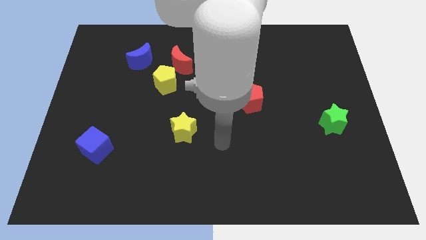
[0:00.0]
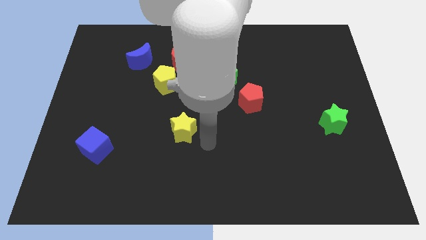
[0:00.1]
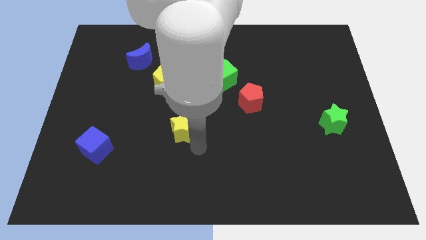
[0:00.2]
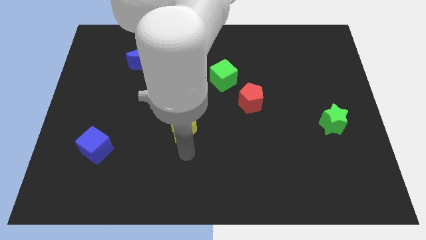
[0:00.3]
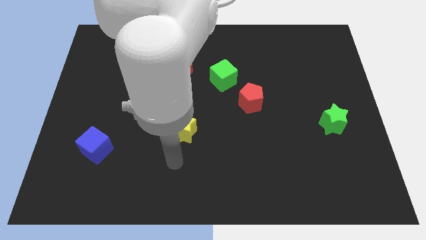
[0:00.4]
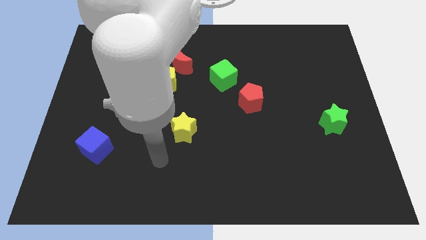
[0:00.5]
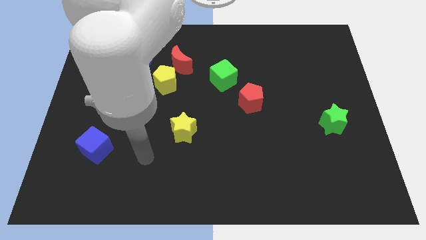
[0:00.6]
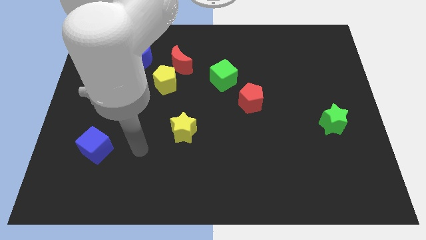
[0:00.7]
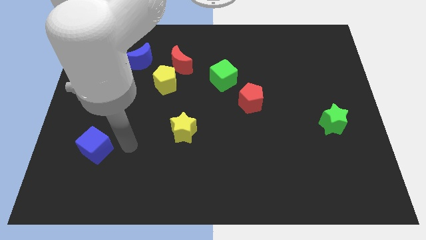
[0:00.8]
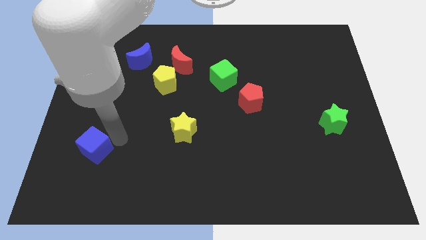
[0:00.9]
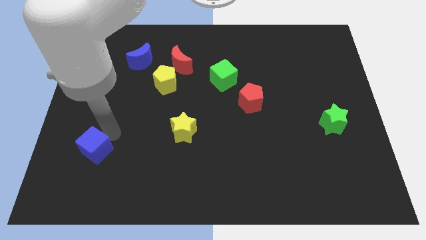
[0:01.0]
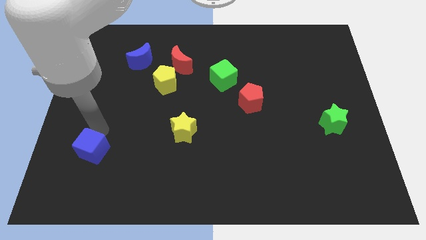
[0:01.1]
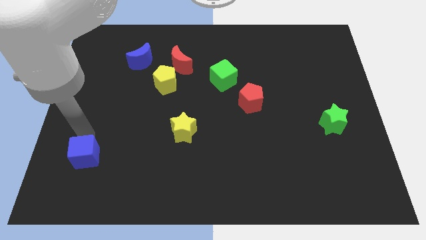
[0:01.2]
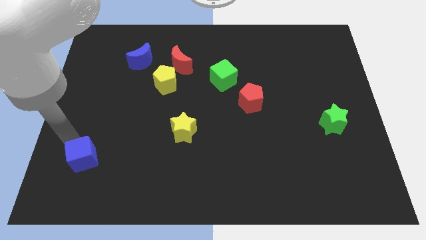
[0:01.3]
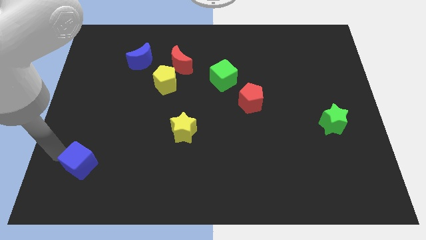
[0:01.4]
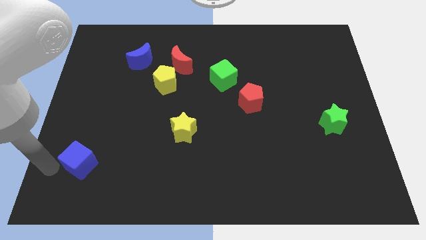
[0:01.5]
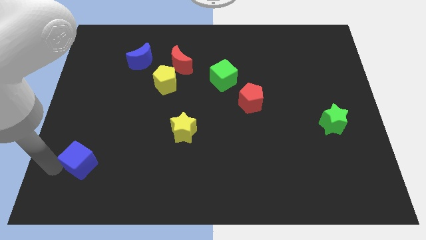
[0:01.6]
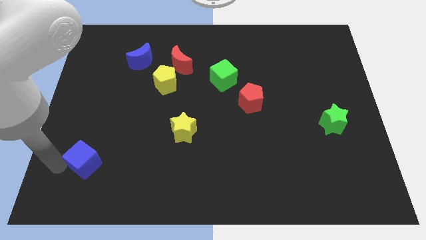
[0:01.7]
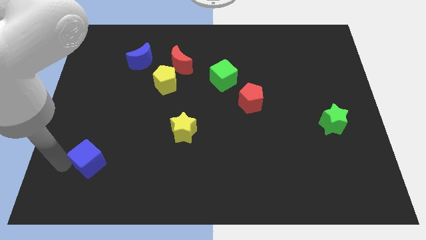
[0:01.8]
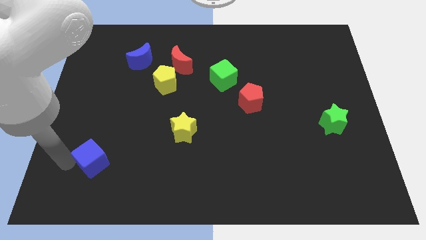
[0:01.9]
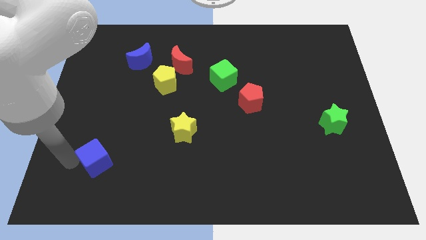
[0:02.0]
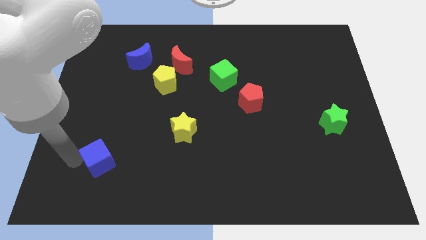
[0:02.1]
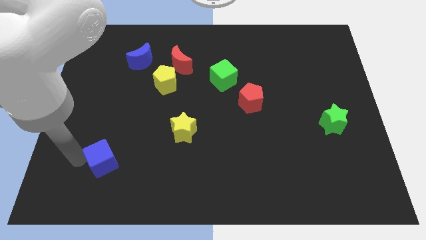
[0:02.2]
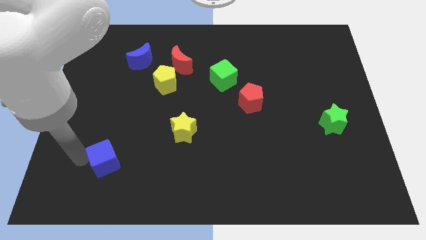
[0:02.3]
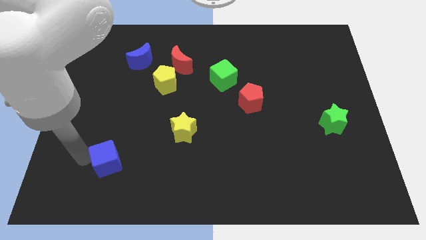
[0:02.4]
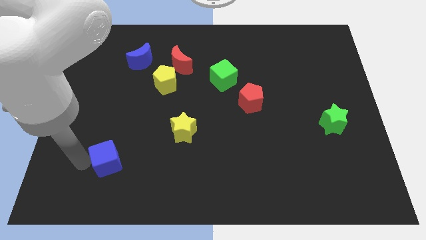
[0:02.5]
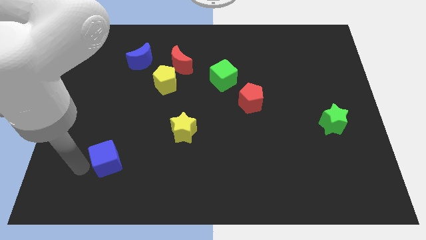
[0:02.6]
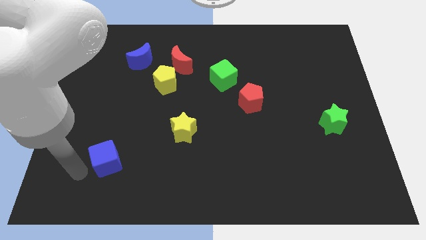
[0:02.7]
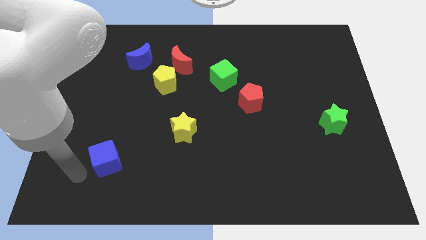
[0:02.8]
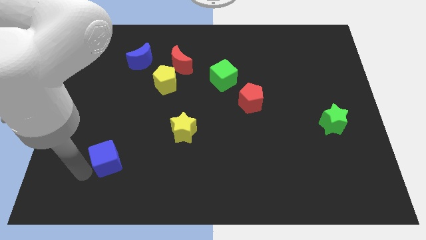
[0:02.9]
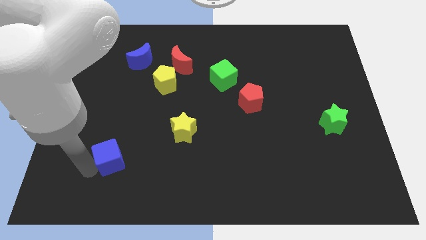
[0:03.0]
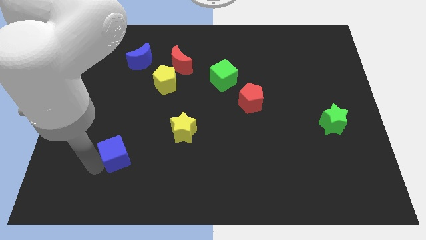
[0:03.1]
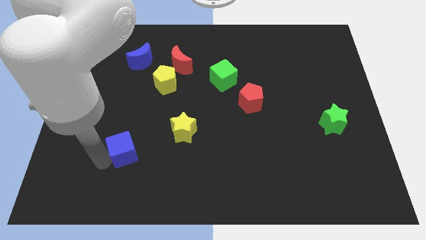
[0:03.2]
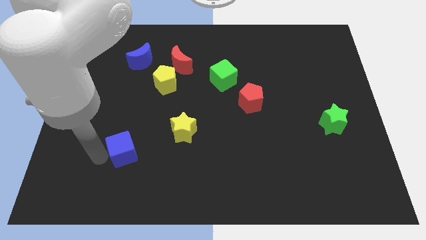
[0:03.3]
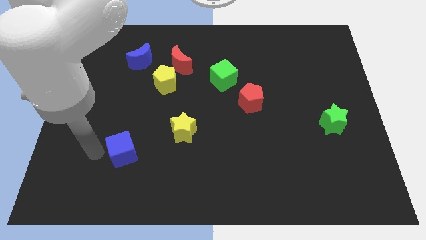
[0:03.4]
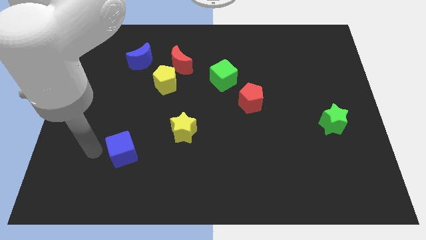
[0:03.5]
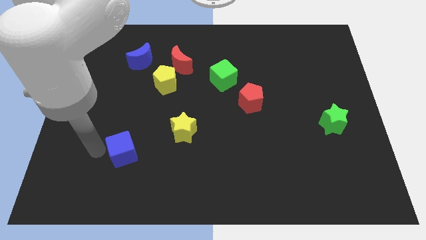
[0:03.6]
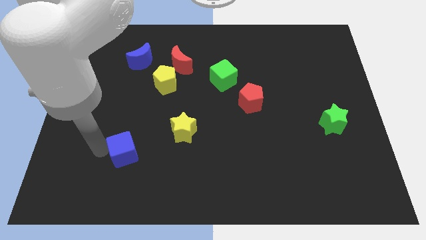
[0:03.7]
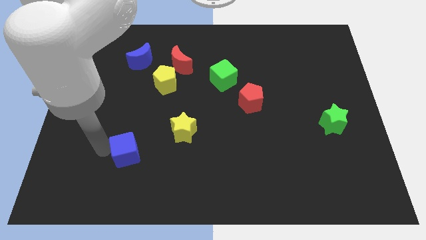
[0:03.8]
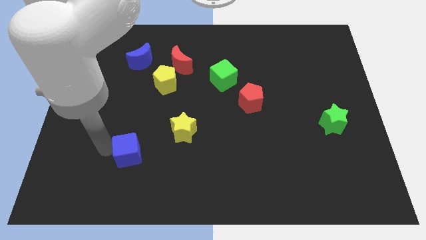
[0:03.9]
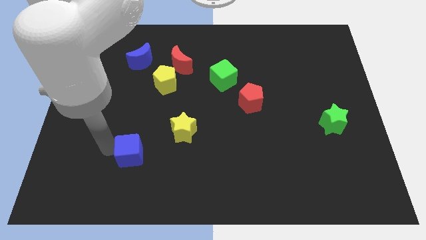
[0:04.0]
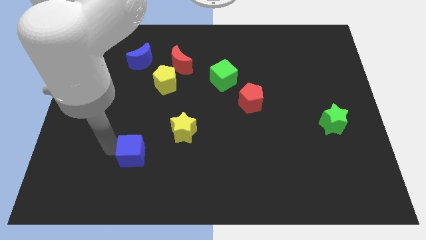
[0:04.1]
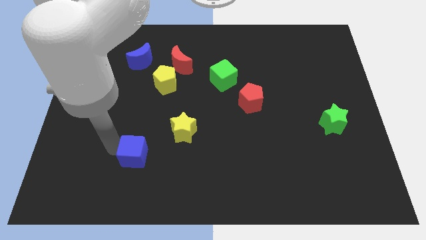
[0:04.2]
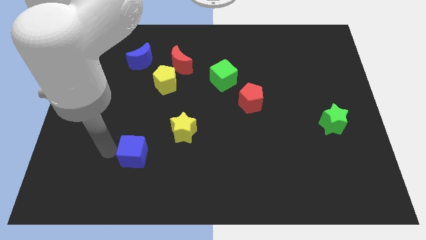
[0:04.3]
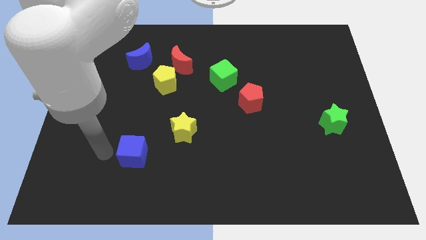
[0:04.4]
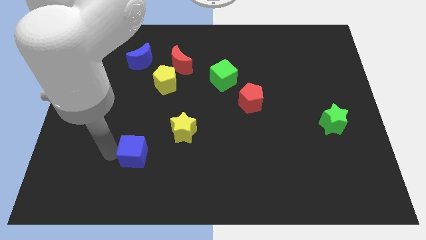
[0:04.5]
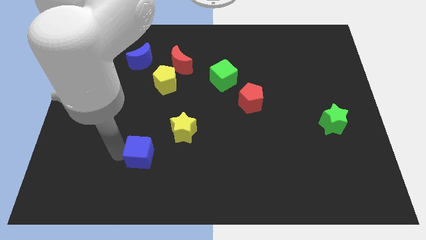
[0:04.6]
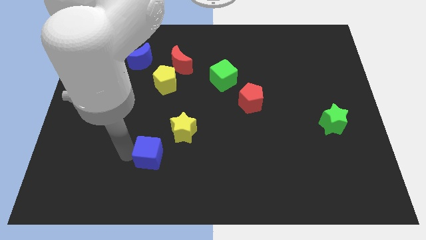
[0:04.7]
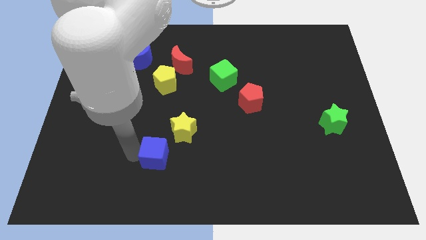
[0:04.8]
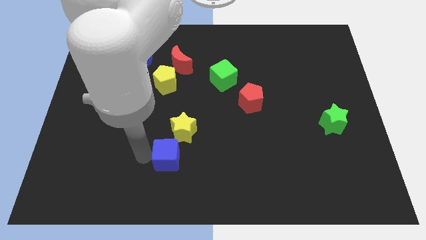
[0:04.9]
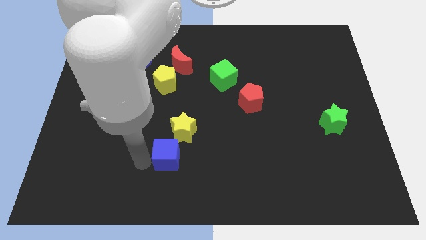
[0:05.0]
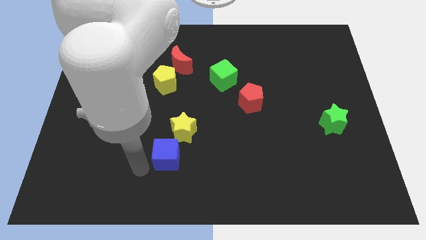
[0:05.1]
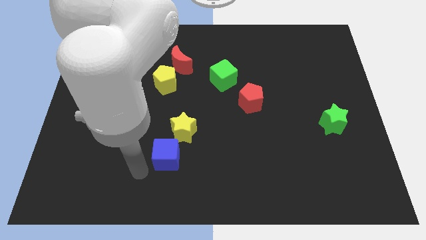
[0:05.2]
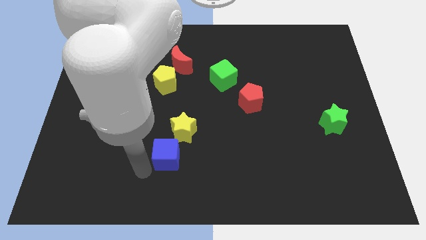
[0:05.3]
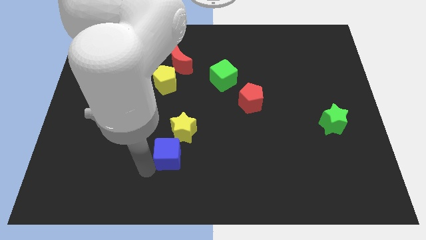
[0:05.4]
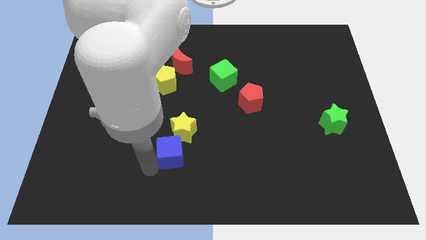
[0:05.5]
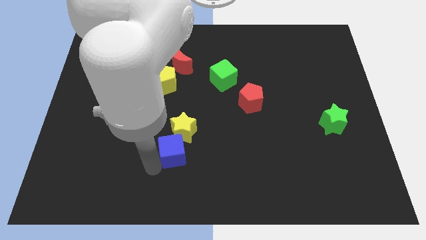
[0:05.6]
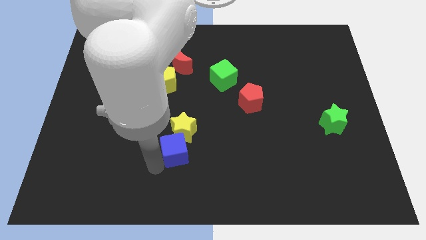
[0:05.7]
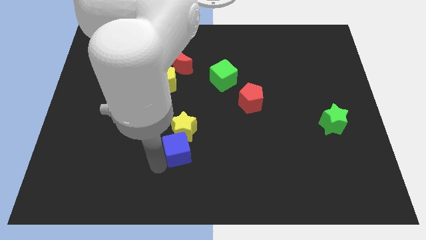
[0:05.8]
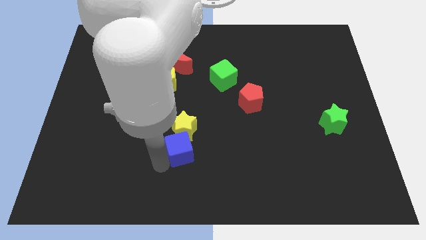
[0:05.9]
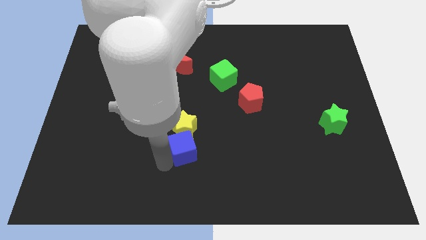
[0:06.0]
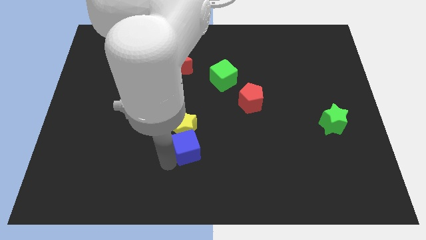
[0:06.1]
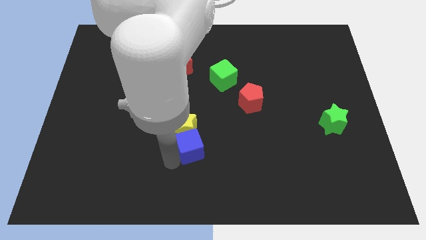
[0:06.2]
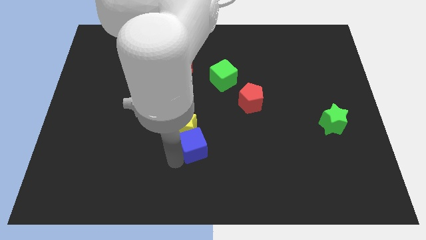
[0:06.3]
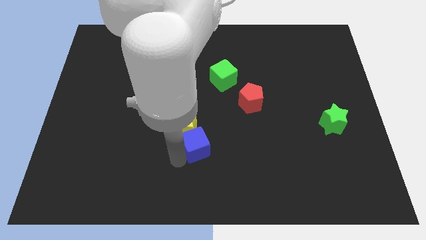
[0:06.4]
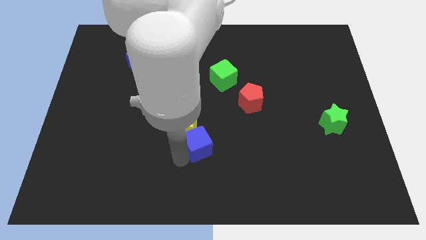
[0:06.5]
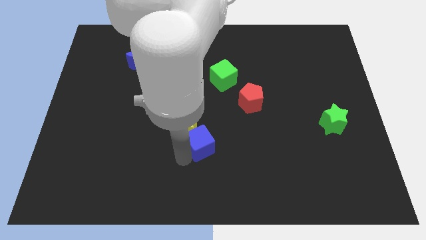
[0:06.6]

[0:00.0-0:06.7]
slide the blue cube to the right side of the yellow star

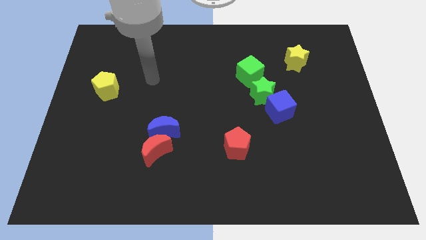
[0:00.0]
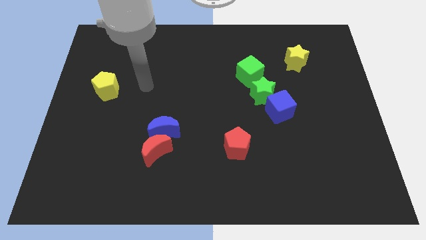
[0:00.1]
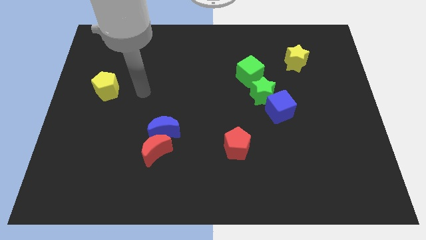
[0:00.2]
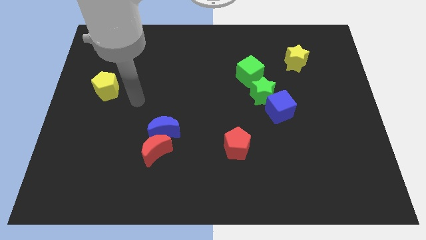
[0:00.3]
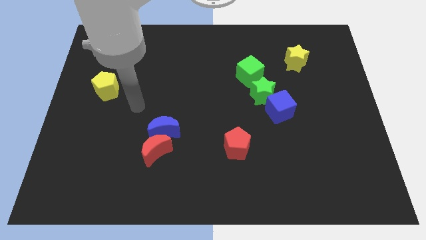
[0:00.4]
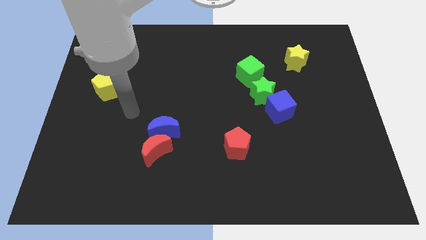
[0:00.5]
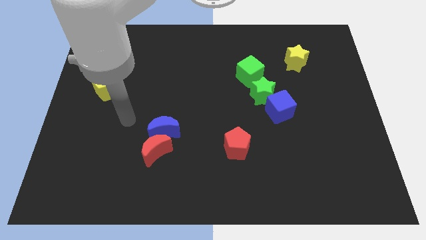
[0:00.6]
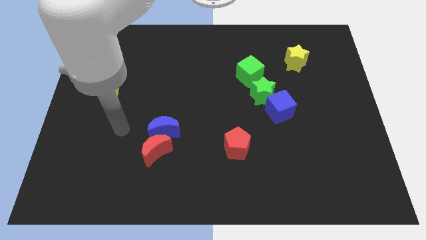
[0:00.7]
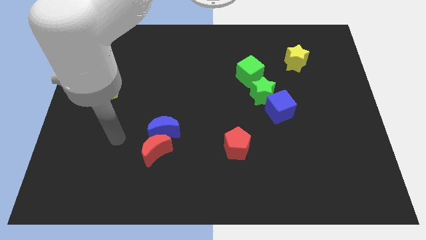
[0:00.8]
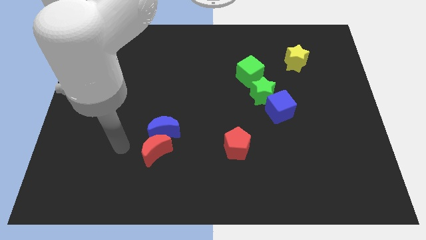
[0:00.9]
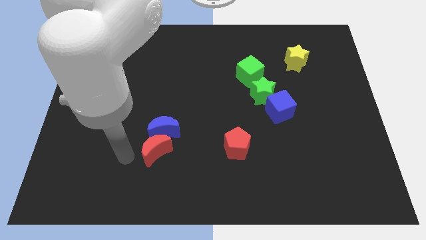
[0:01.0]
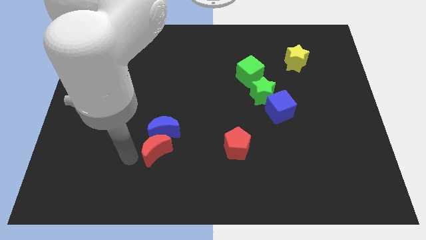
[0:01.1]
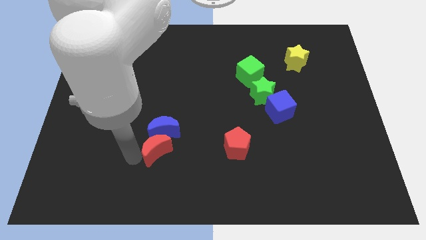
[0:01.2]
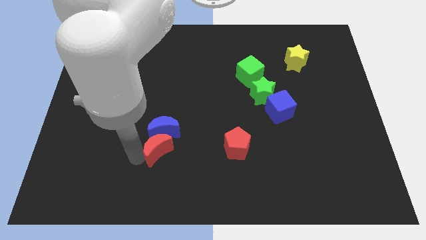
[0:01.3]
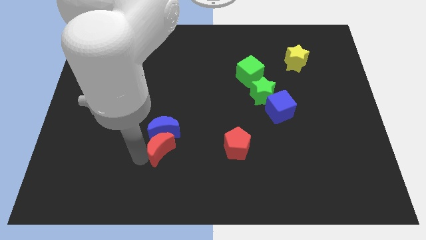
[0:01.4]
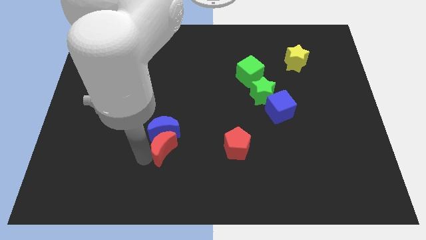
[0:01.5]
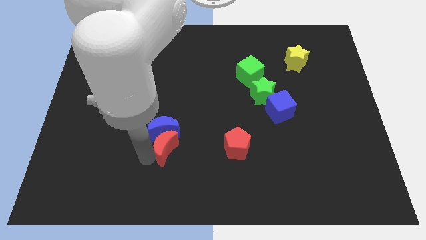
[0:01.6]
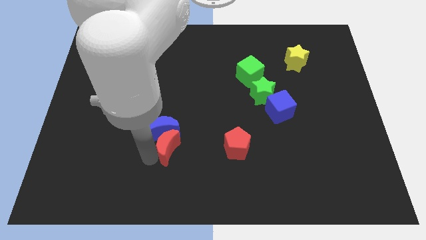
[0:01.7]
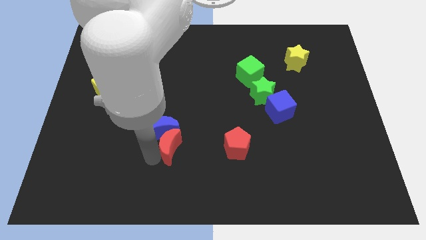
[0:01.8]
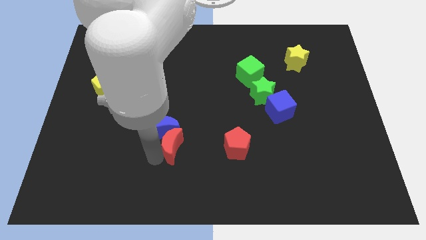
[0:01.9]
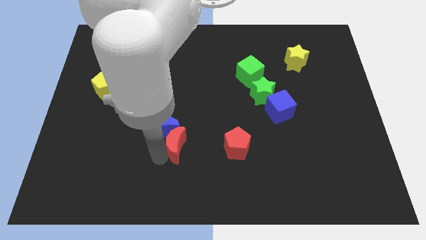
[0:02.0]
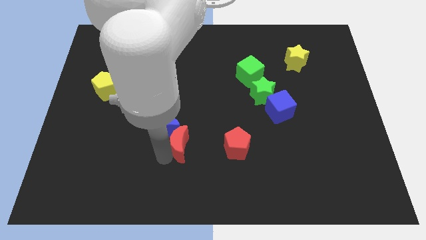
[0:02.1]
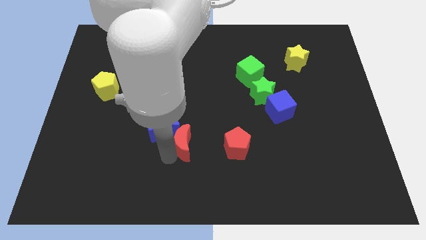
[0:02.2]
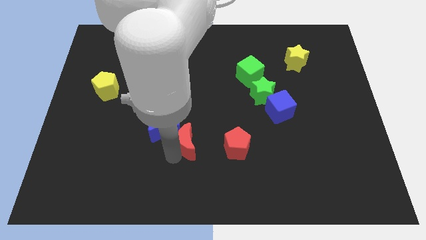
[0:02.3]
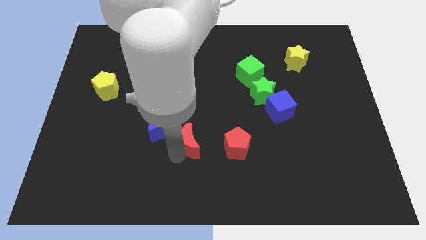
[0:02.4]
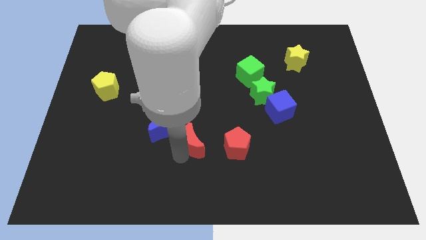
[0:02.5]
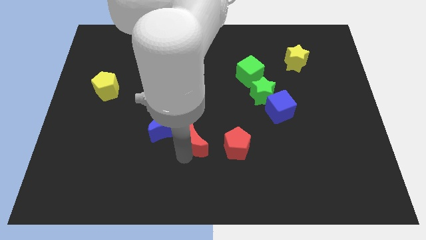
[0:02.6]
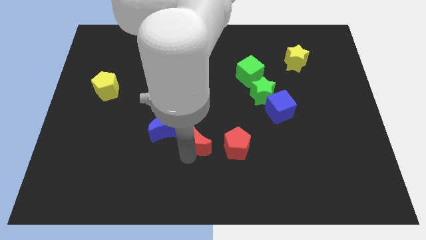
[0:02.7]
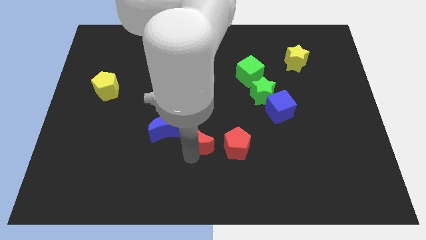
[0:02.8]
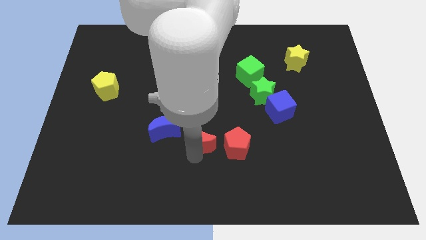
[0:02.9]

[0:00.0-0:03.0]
move the red moon to the top left side of the red pentagon
